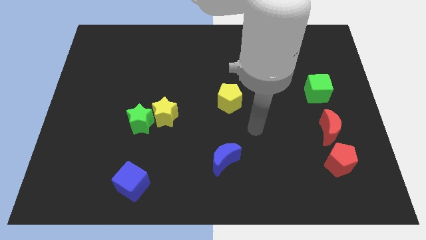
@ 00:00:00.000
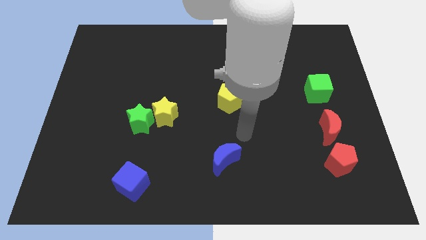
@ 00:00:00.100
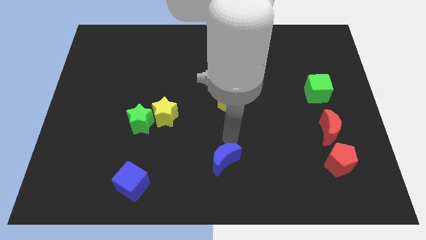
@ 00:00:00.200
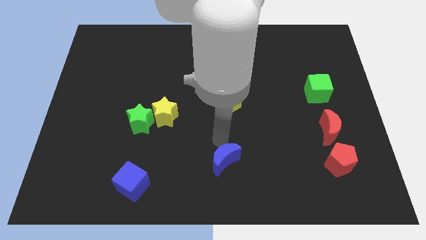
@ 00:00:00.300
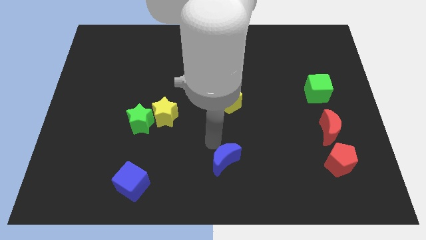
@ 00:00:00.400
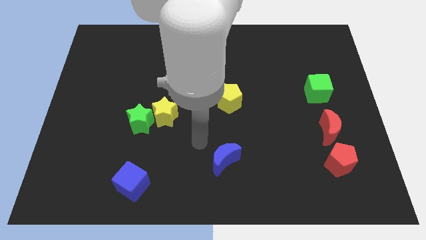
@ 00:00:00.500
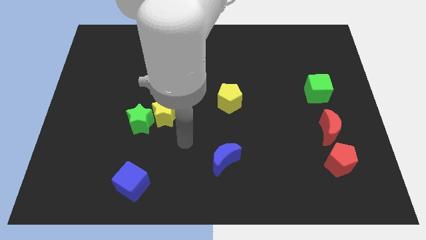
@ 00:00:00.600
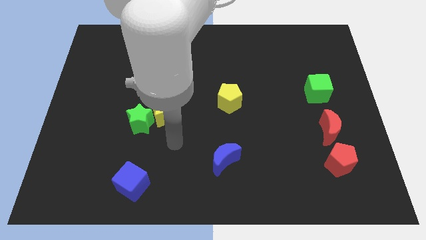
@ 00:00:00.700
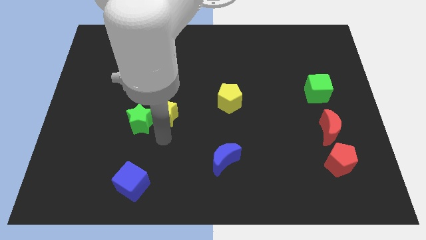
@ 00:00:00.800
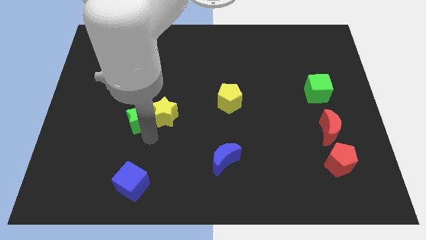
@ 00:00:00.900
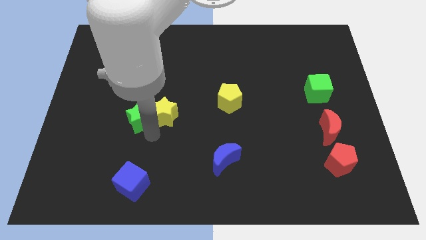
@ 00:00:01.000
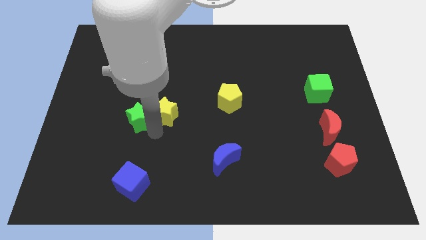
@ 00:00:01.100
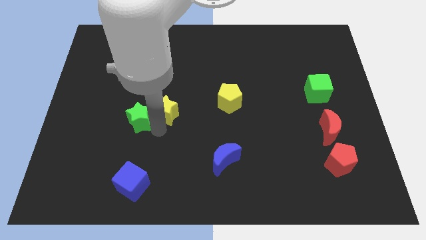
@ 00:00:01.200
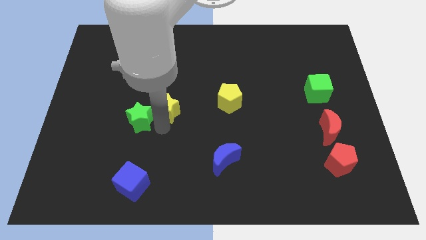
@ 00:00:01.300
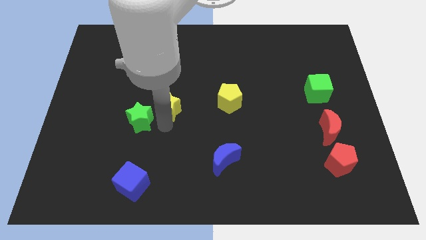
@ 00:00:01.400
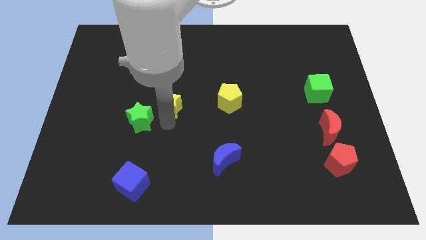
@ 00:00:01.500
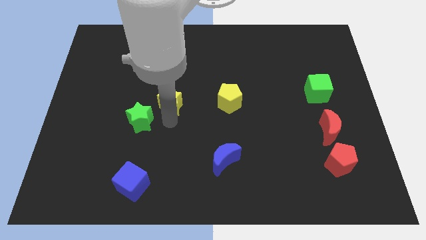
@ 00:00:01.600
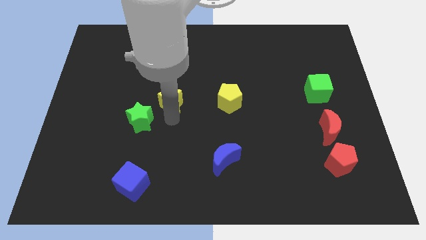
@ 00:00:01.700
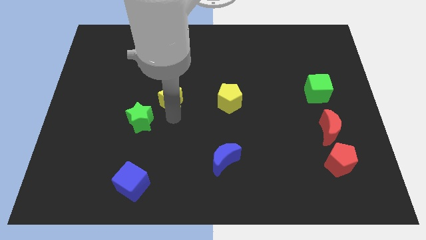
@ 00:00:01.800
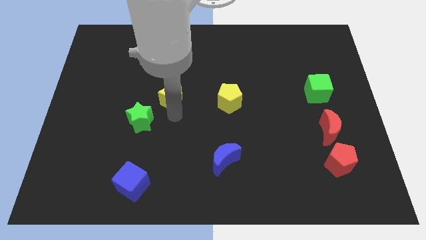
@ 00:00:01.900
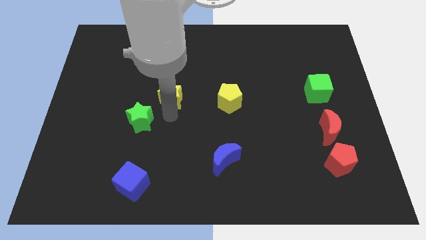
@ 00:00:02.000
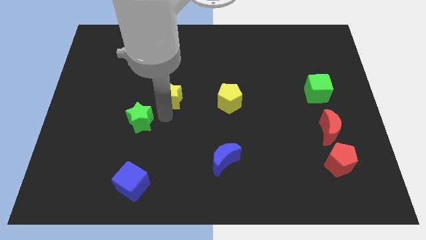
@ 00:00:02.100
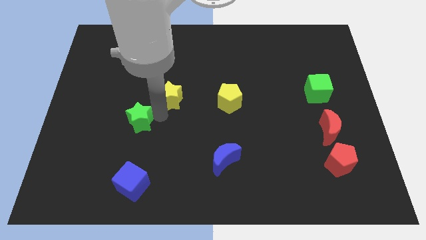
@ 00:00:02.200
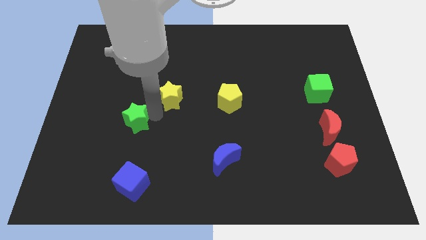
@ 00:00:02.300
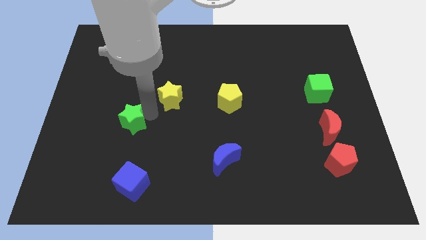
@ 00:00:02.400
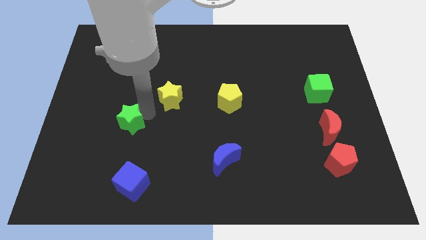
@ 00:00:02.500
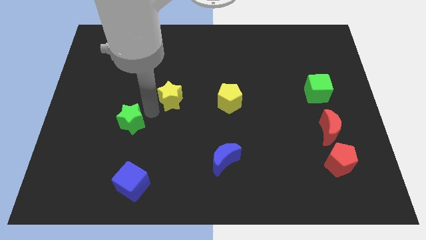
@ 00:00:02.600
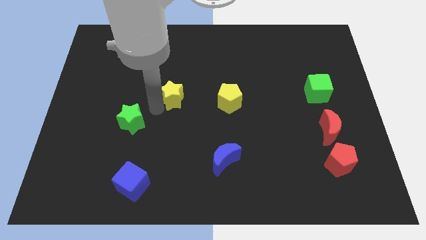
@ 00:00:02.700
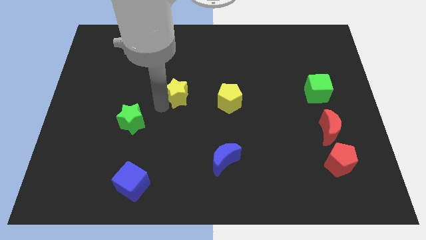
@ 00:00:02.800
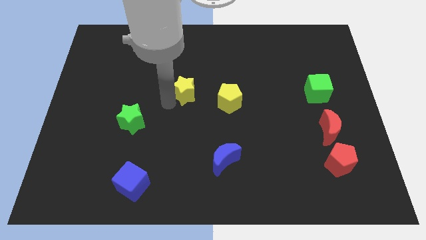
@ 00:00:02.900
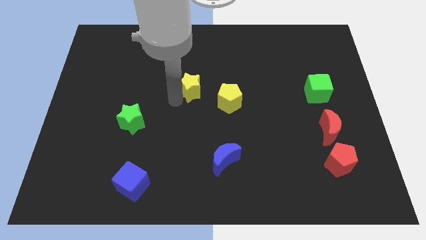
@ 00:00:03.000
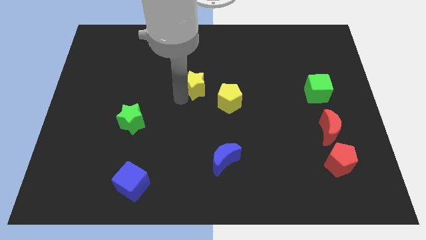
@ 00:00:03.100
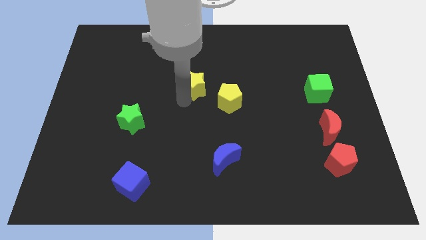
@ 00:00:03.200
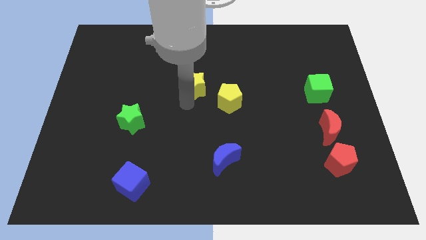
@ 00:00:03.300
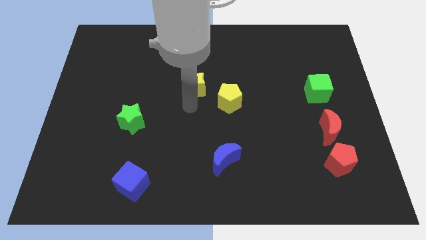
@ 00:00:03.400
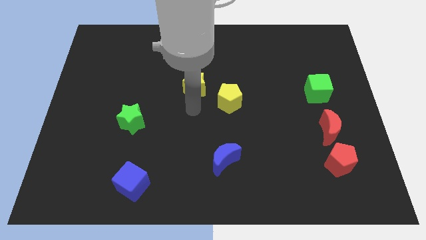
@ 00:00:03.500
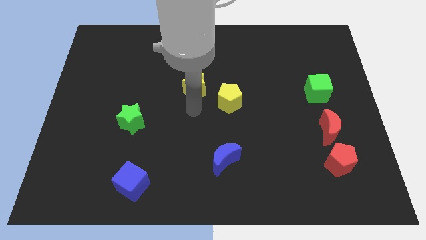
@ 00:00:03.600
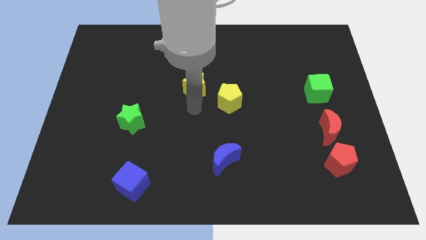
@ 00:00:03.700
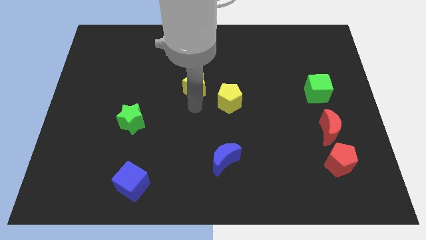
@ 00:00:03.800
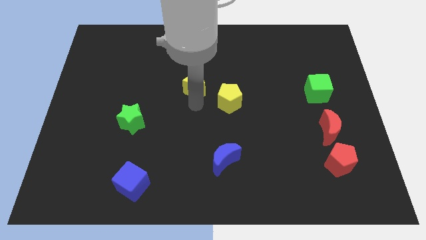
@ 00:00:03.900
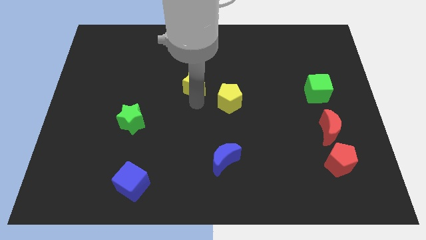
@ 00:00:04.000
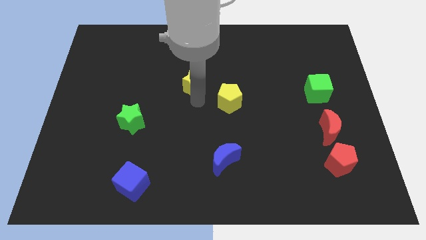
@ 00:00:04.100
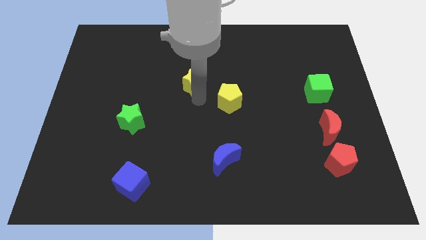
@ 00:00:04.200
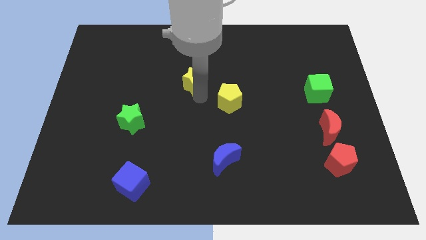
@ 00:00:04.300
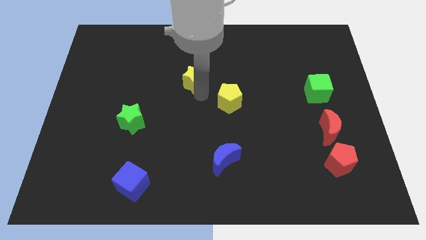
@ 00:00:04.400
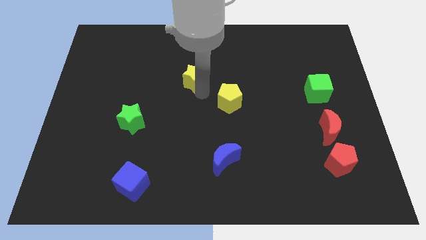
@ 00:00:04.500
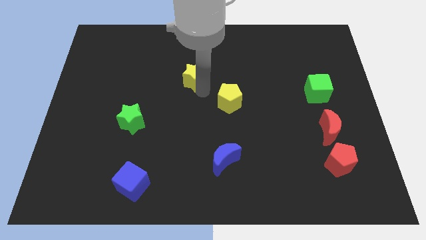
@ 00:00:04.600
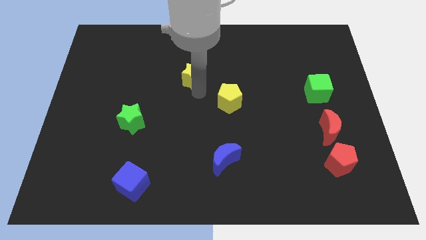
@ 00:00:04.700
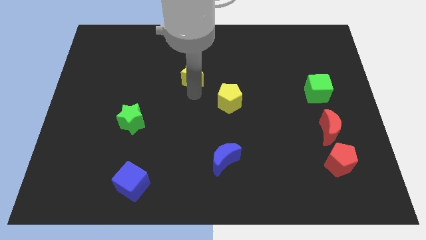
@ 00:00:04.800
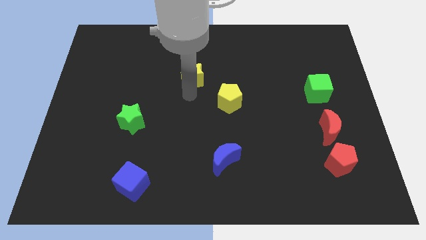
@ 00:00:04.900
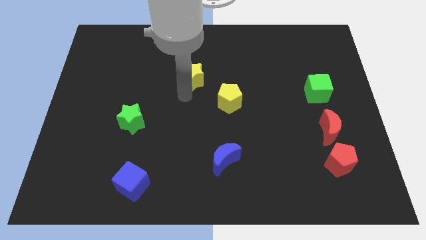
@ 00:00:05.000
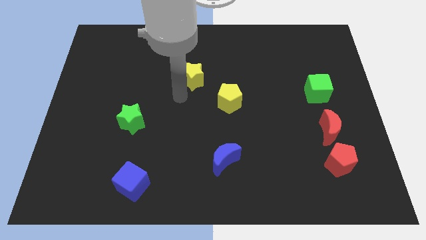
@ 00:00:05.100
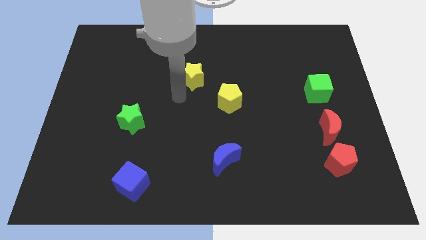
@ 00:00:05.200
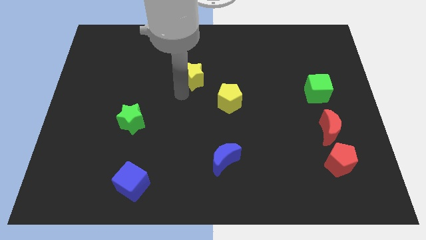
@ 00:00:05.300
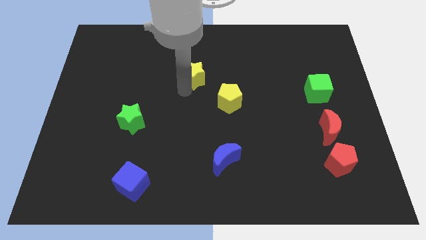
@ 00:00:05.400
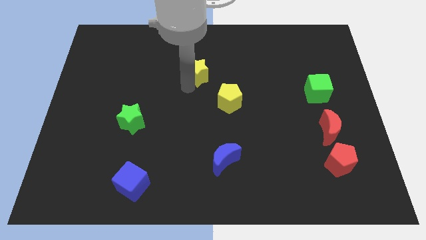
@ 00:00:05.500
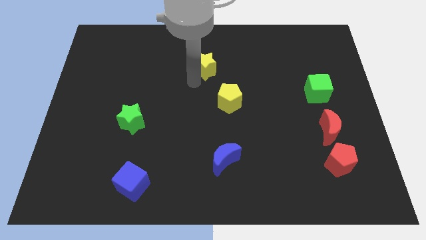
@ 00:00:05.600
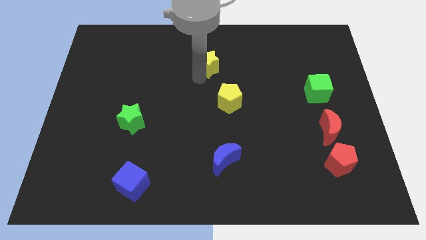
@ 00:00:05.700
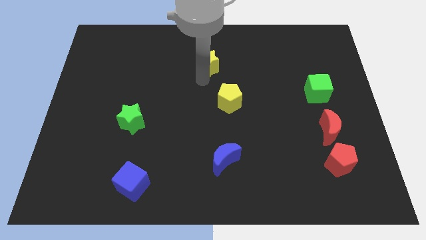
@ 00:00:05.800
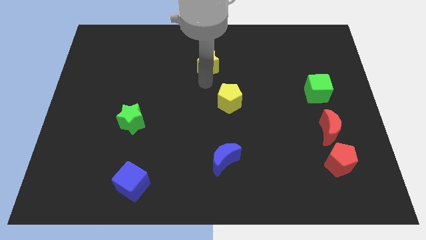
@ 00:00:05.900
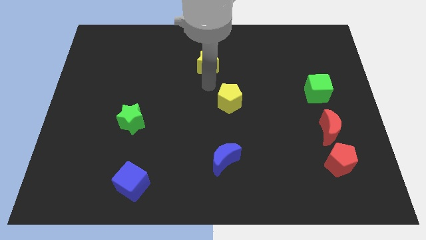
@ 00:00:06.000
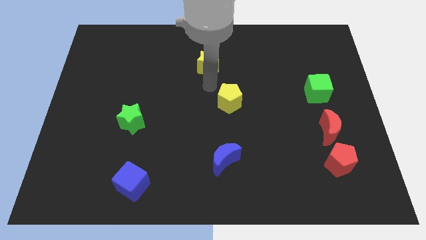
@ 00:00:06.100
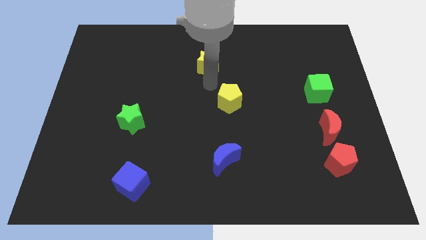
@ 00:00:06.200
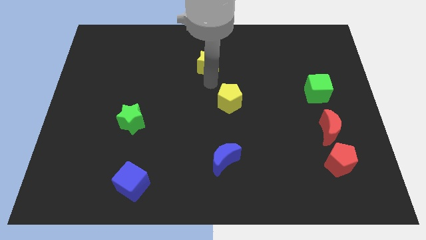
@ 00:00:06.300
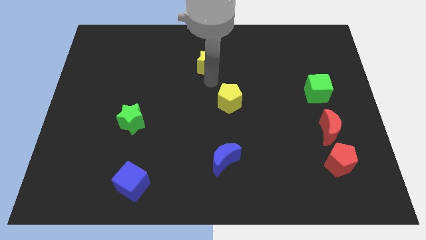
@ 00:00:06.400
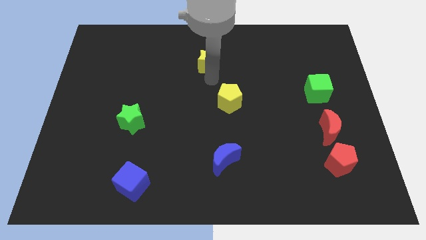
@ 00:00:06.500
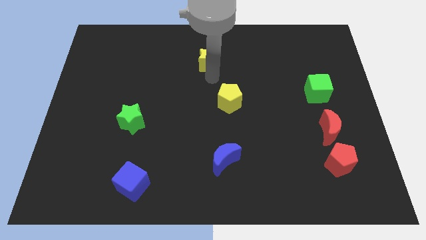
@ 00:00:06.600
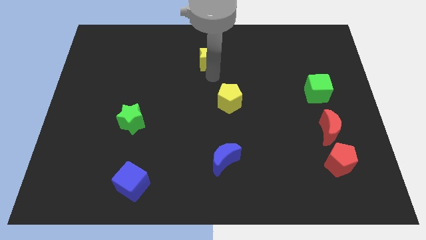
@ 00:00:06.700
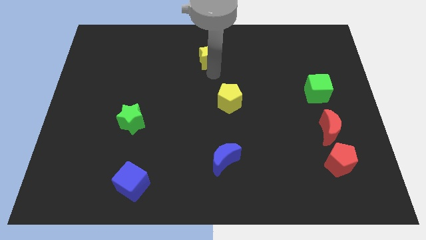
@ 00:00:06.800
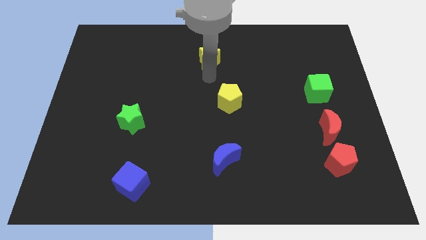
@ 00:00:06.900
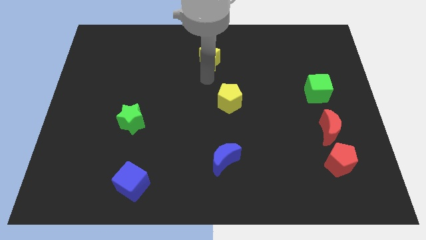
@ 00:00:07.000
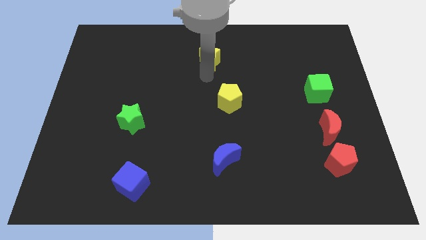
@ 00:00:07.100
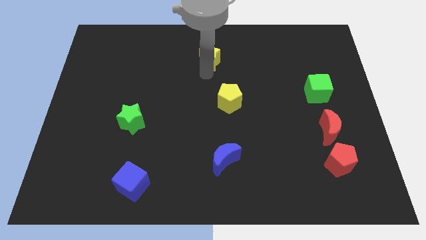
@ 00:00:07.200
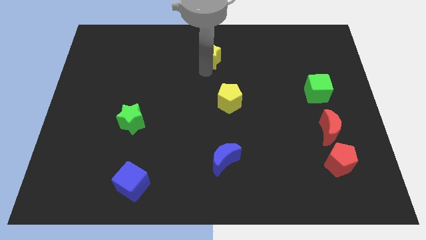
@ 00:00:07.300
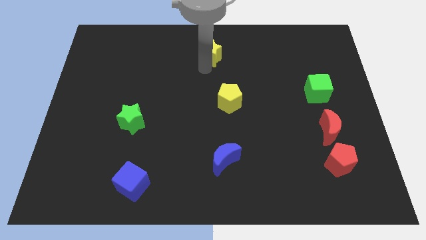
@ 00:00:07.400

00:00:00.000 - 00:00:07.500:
move the yellow star to the towards your base
